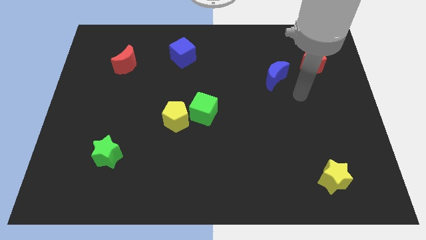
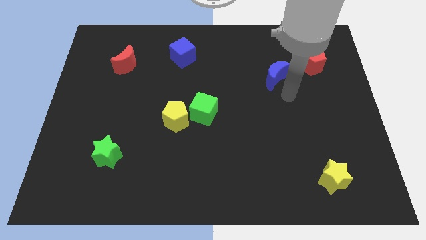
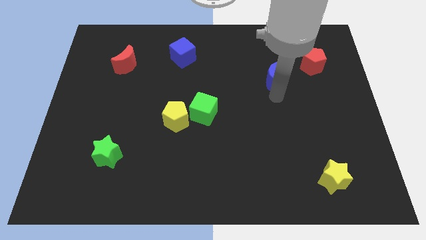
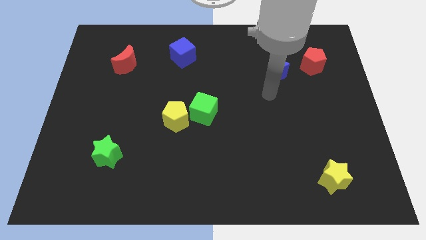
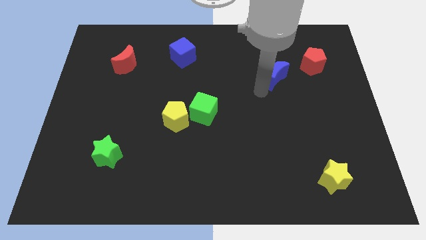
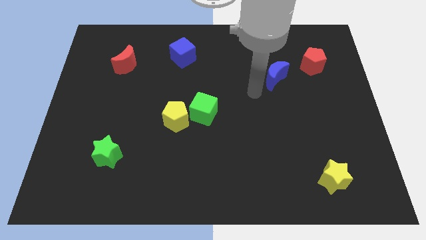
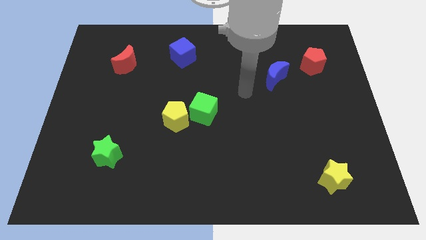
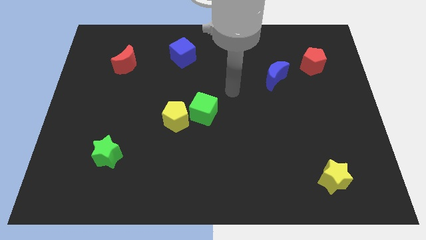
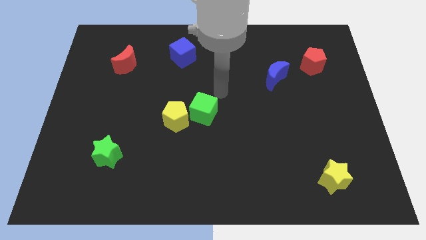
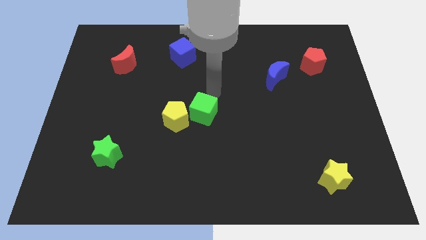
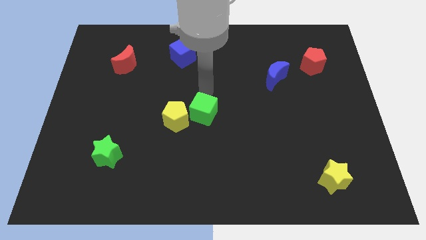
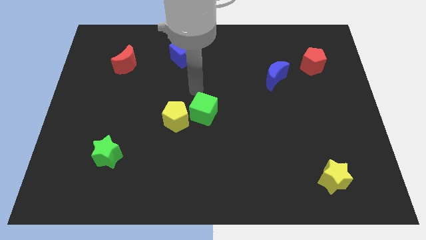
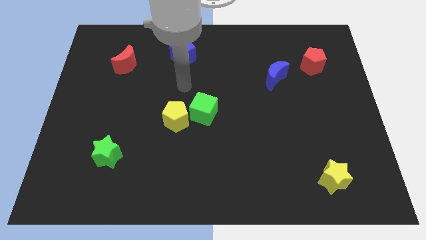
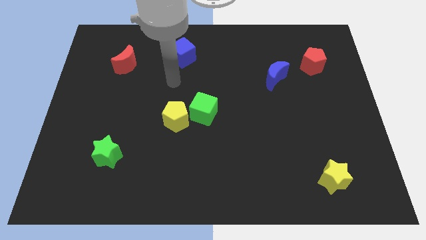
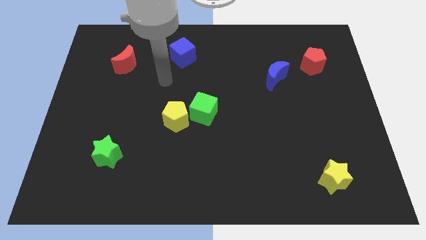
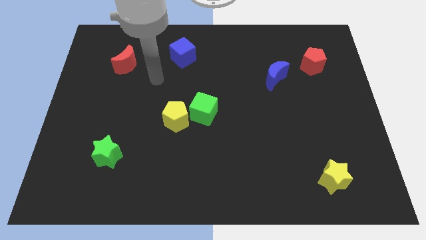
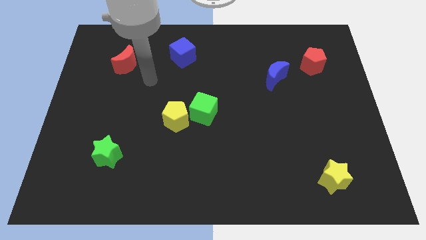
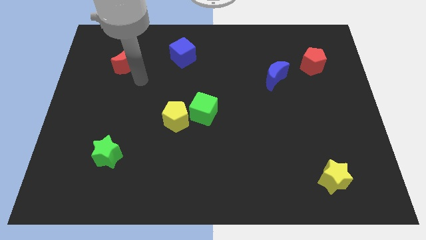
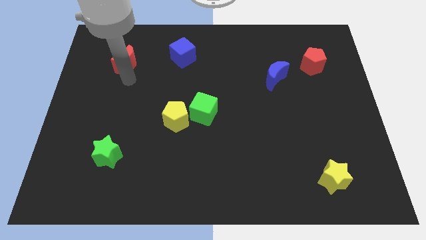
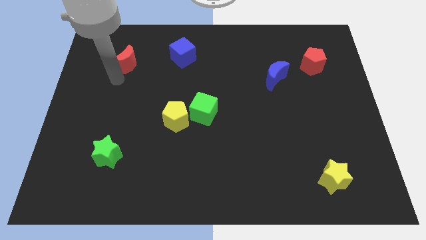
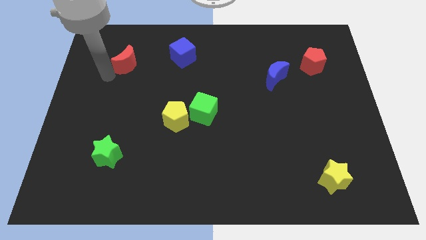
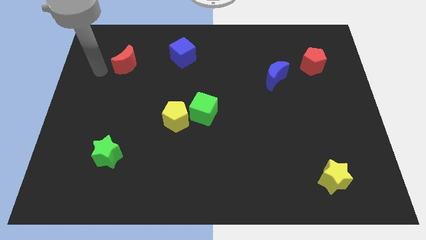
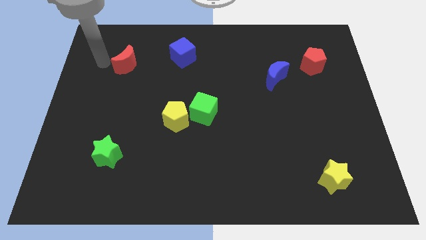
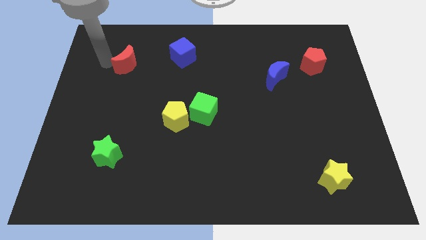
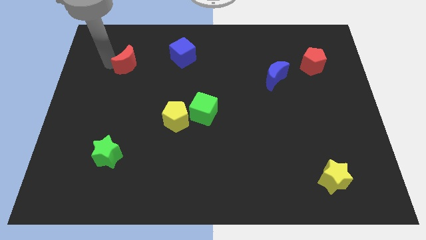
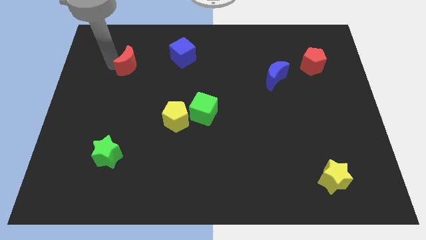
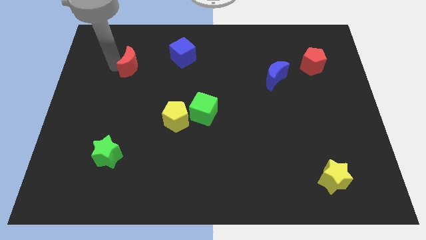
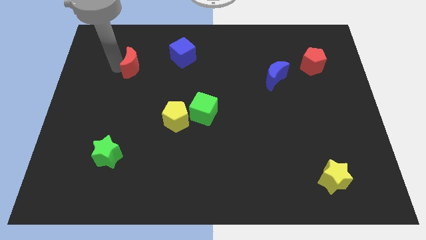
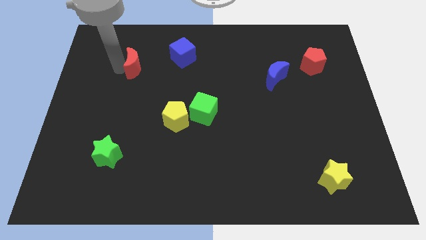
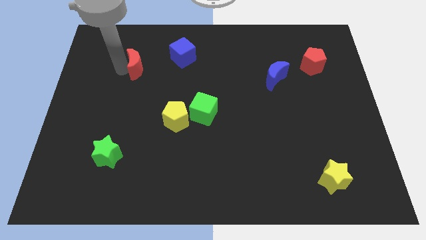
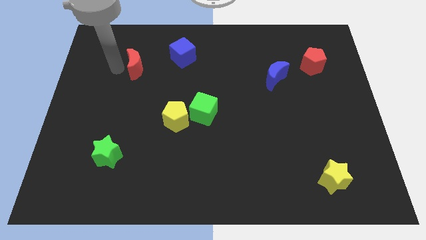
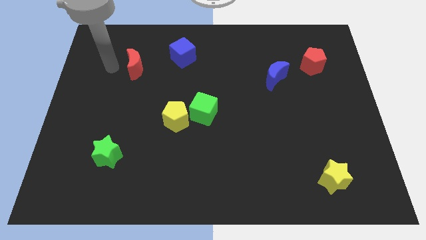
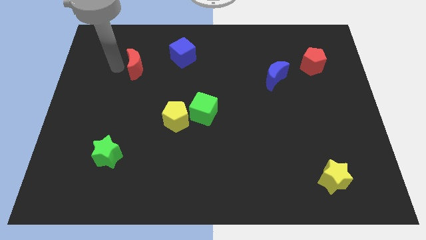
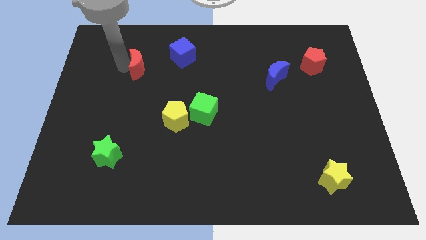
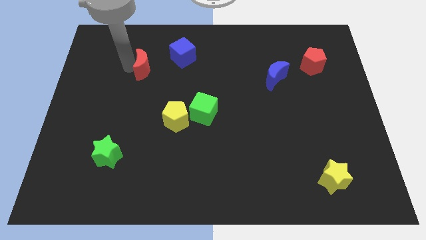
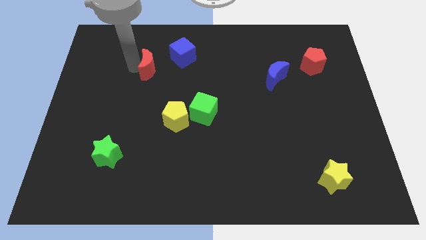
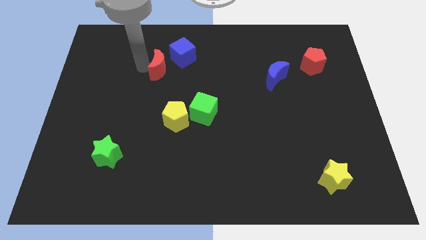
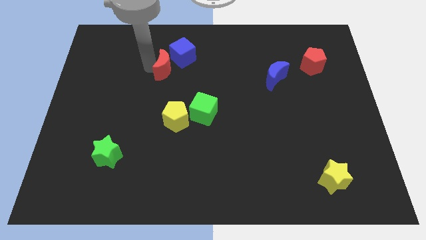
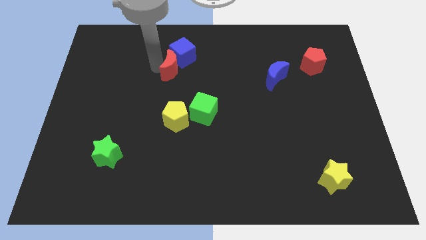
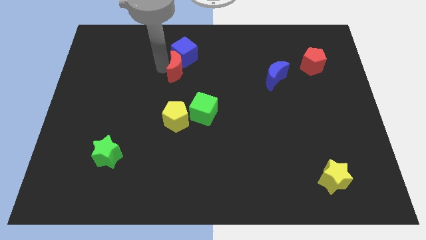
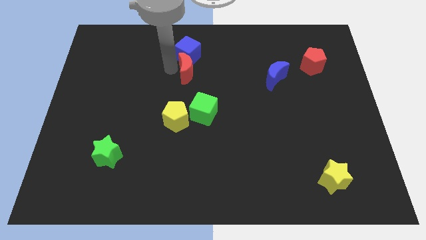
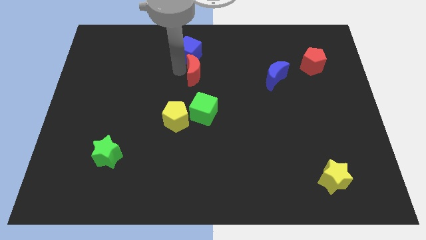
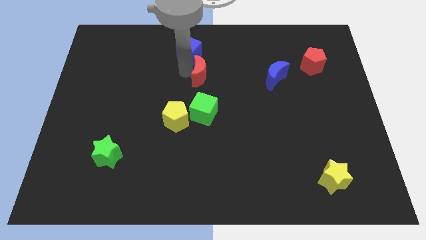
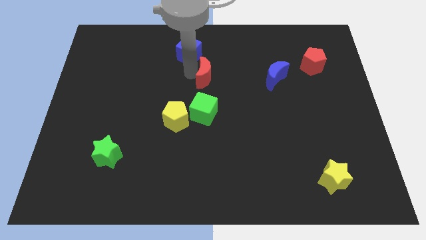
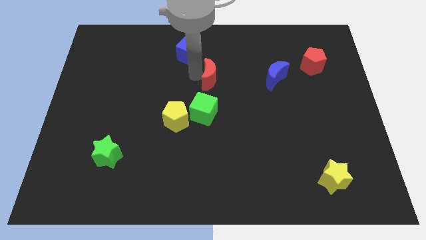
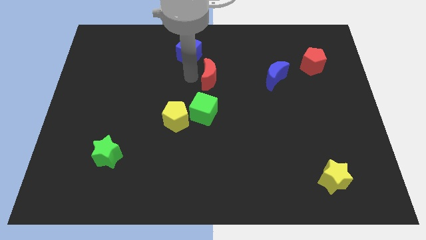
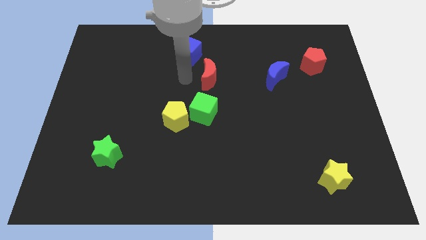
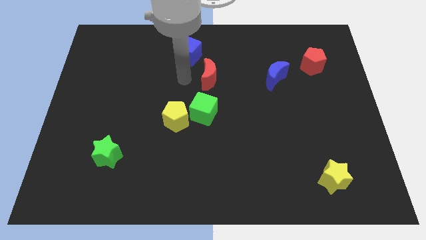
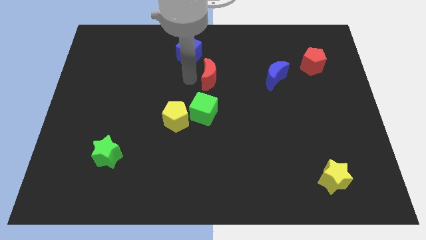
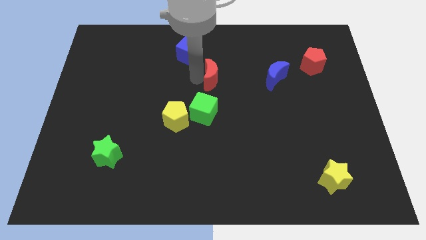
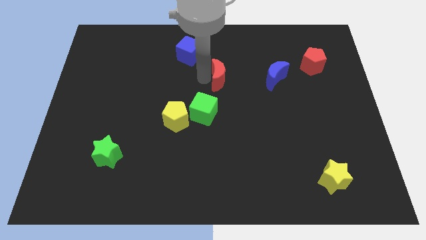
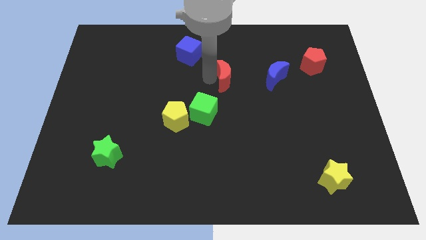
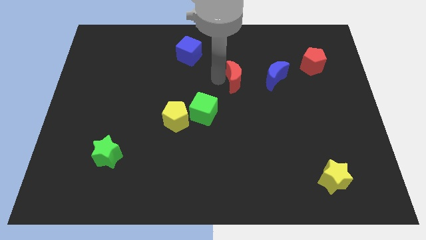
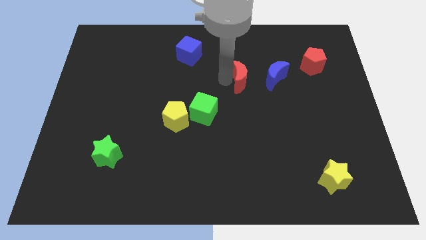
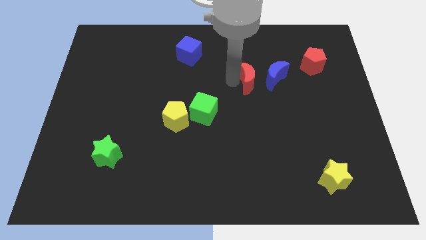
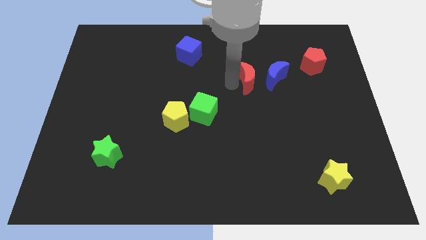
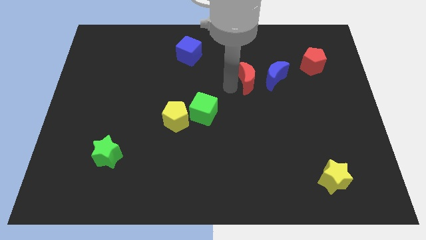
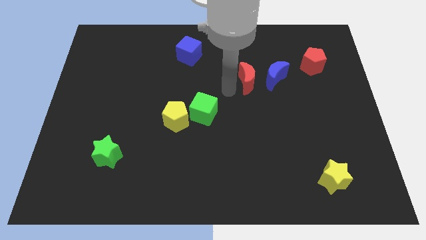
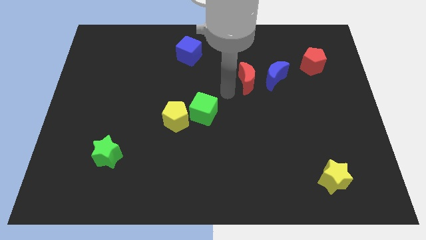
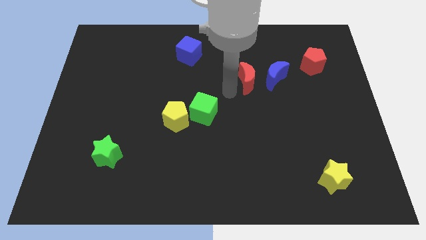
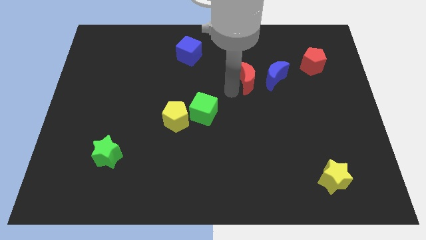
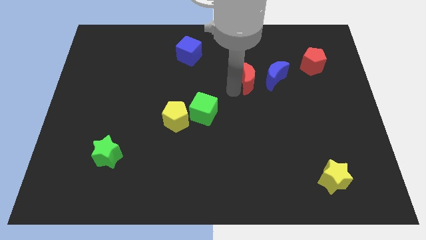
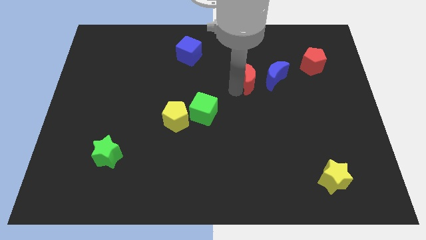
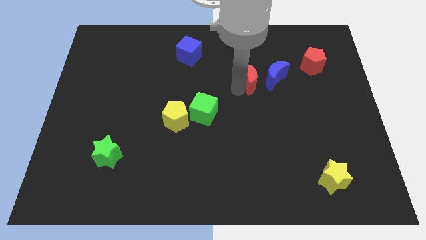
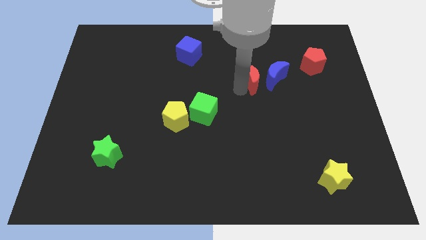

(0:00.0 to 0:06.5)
slide the red moon next to the blue moon

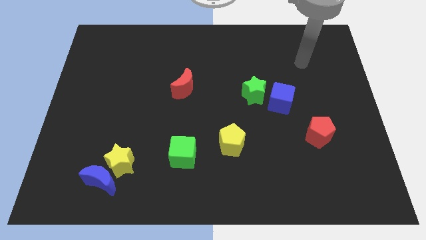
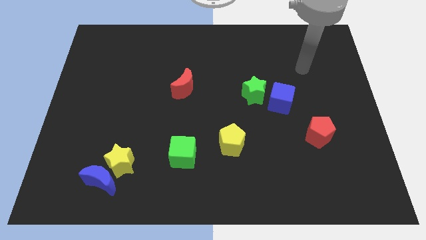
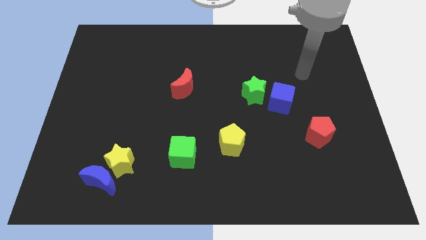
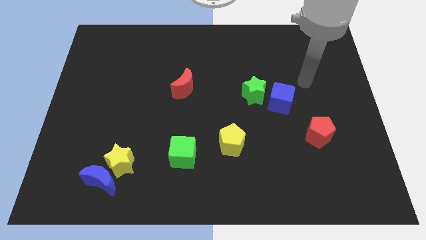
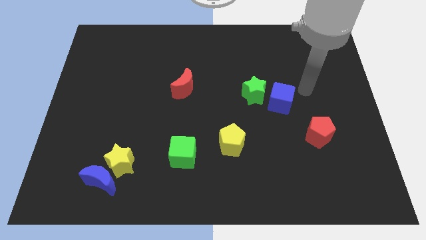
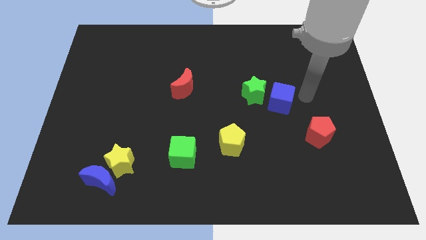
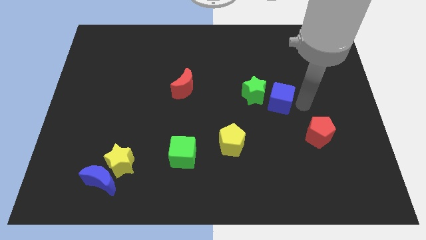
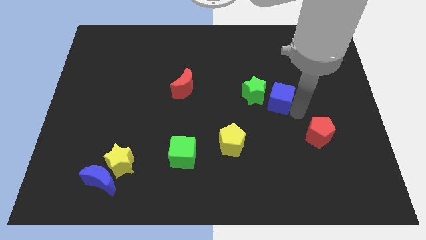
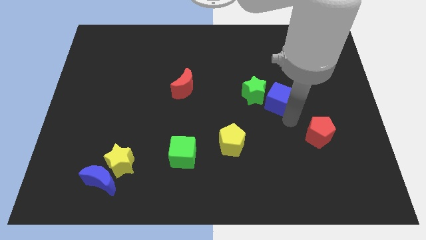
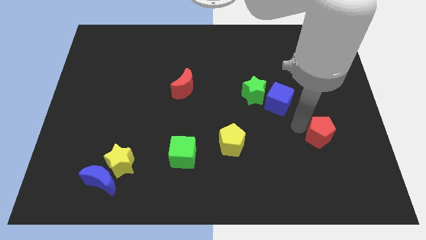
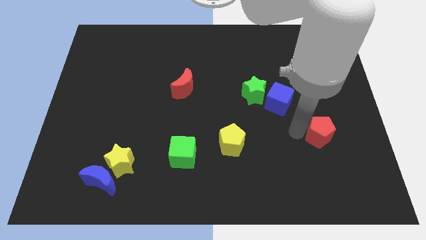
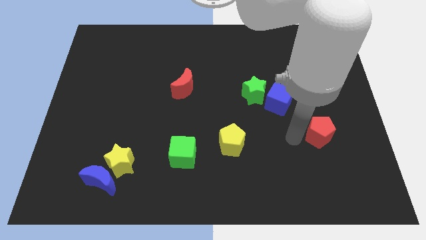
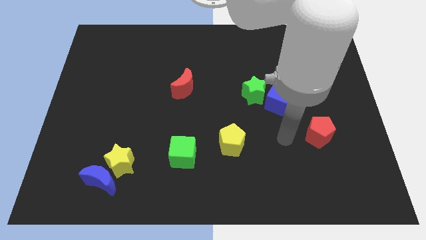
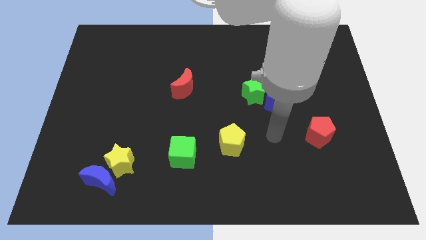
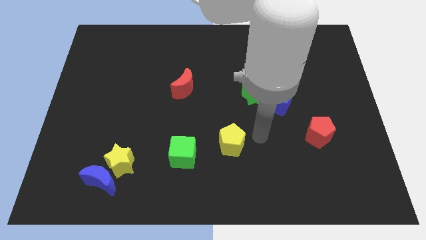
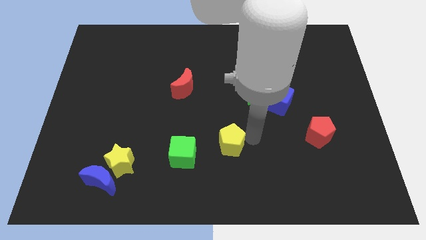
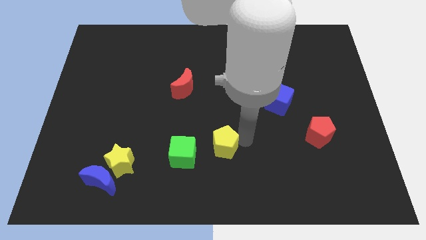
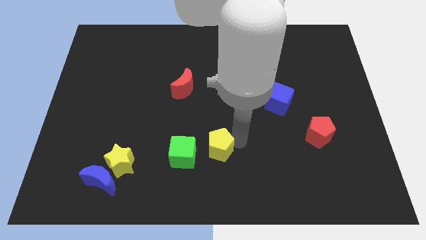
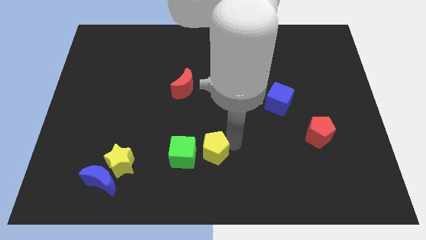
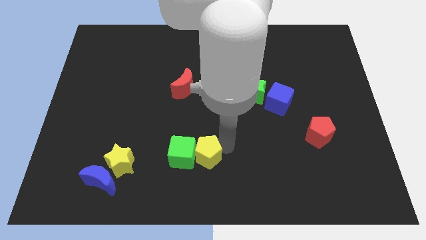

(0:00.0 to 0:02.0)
put the yellow pentagon next to the green cube
